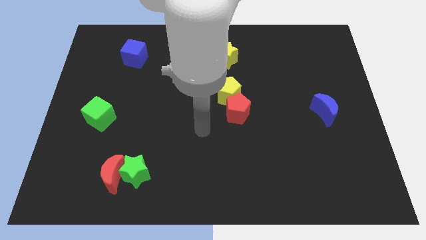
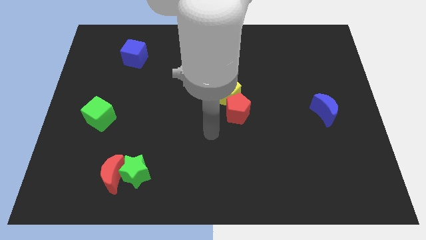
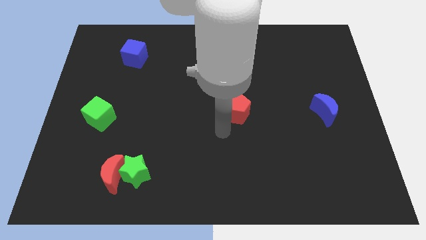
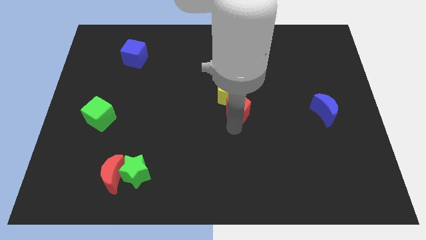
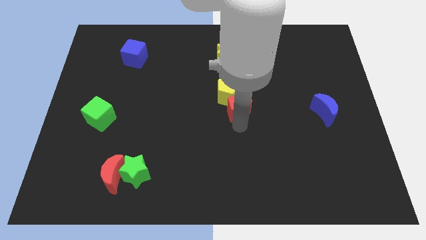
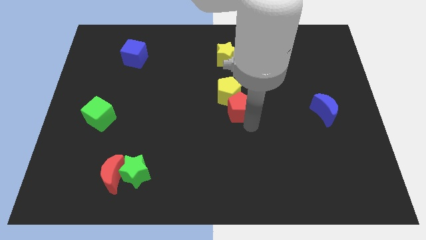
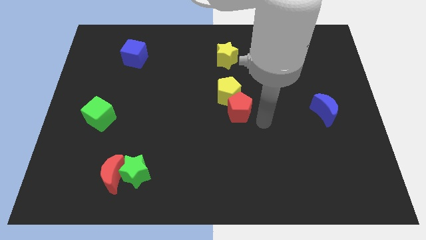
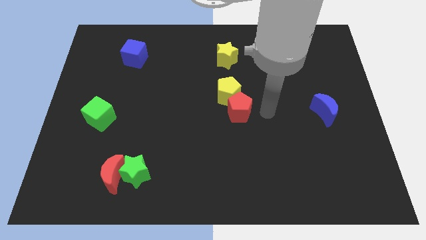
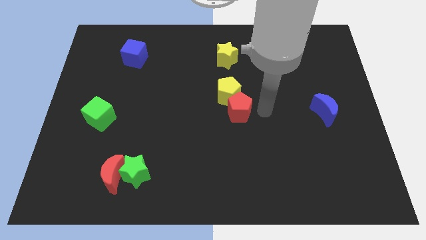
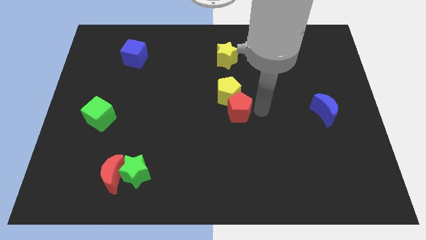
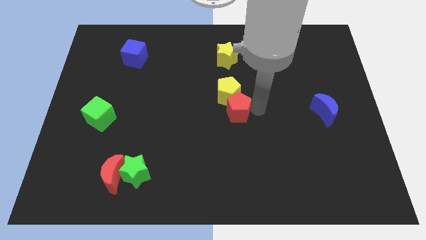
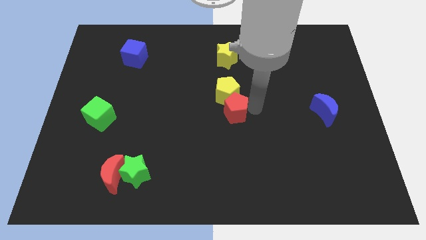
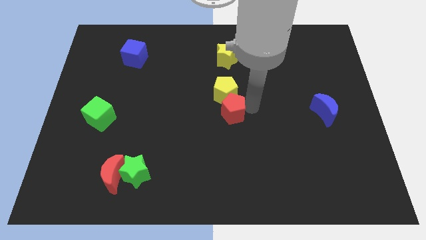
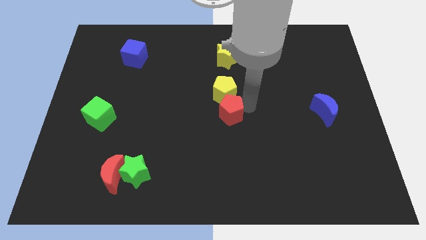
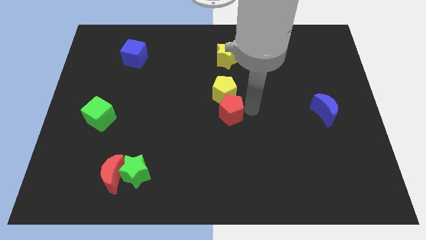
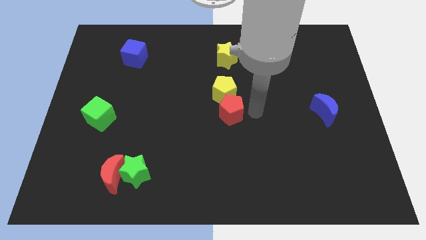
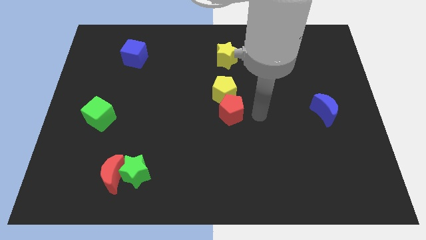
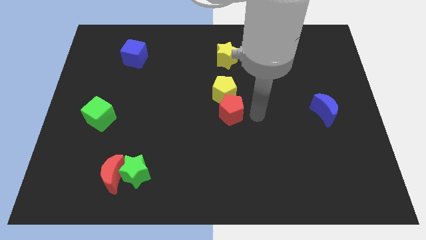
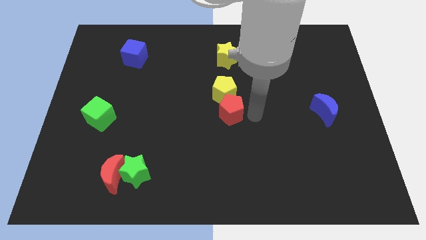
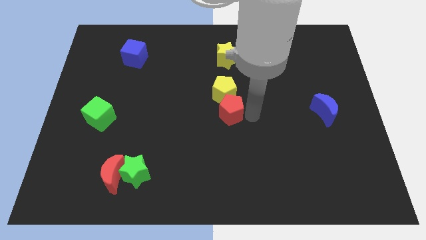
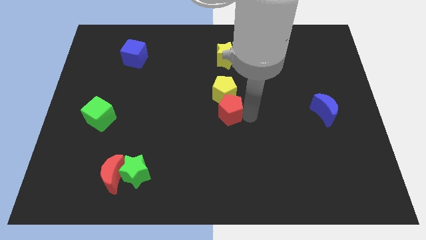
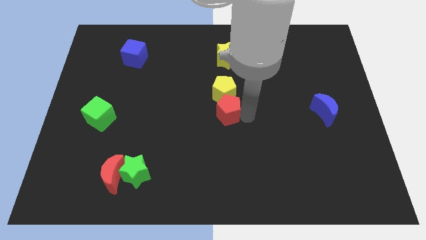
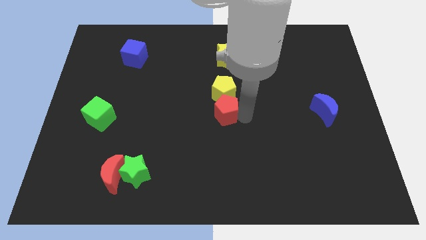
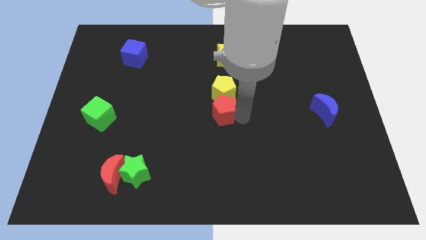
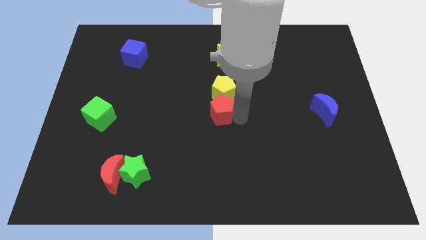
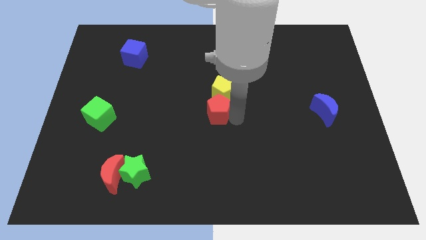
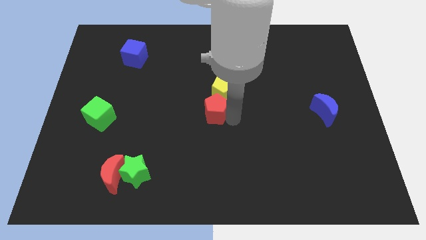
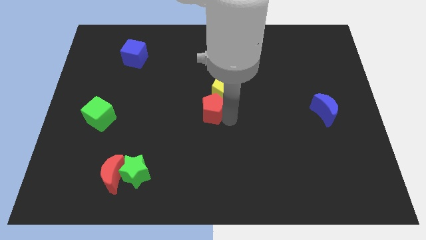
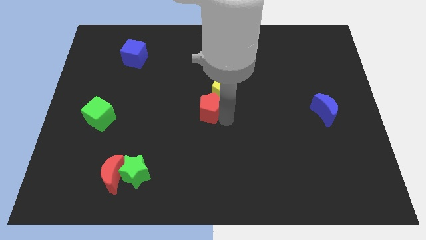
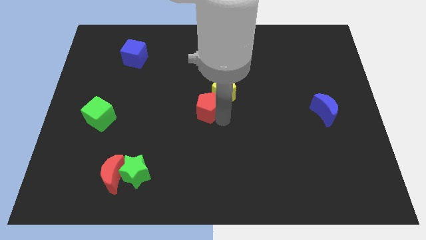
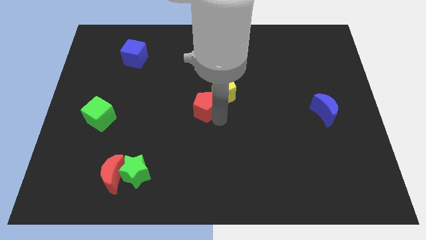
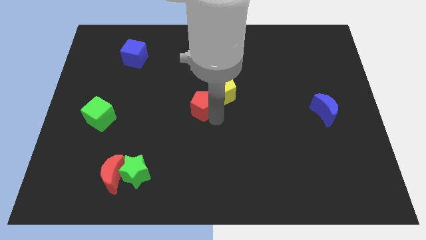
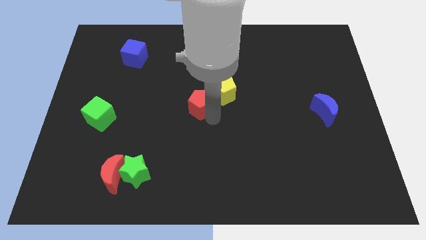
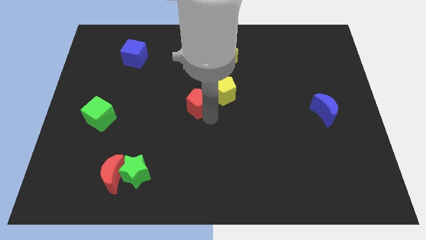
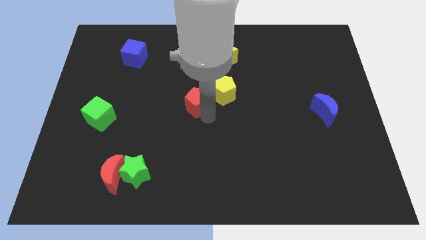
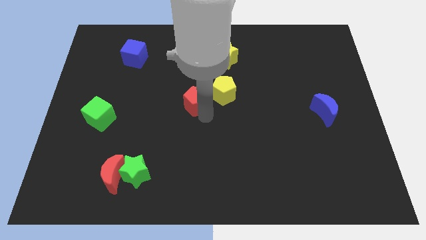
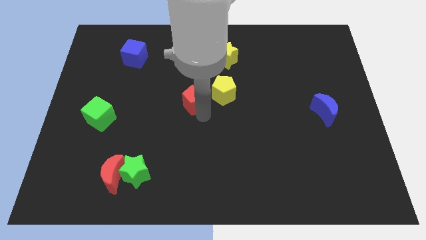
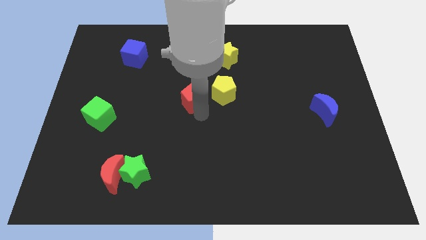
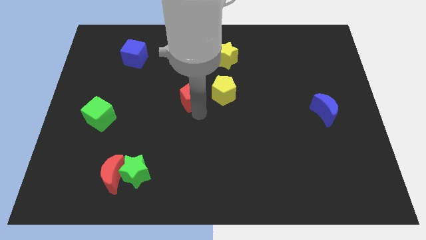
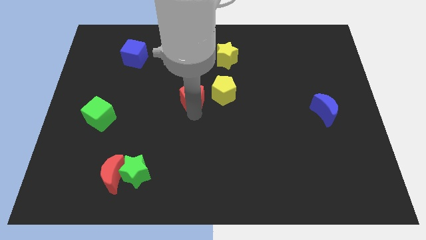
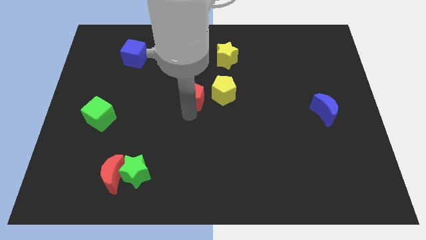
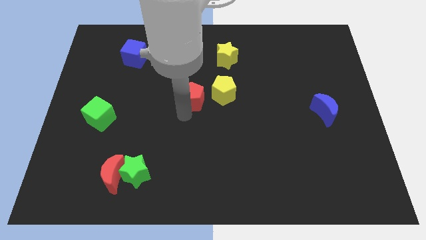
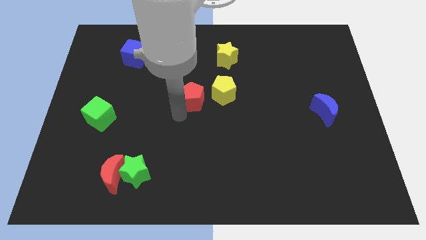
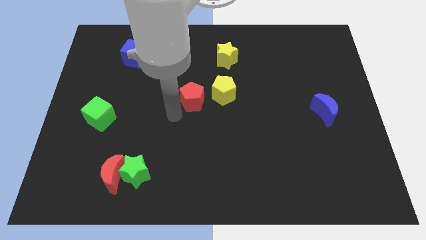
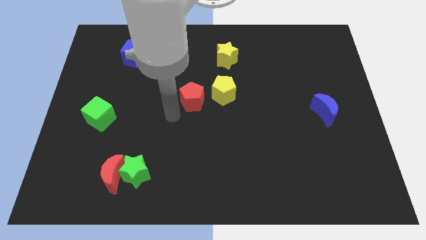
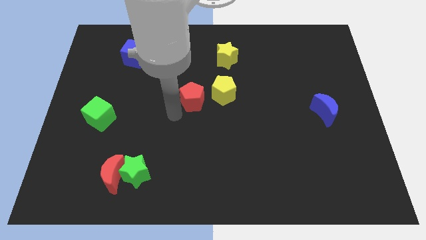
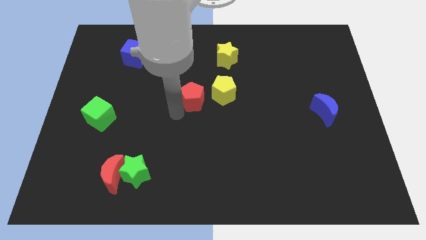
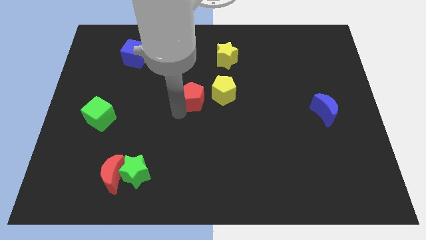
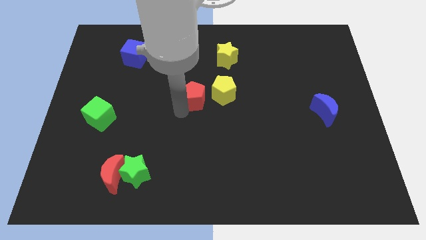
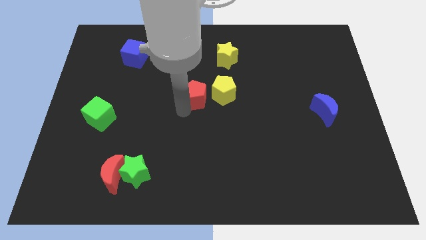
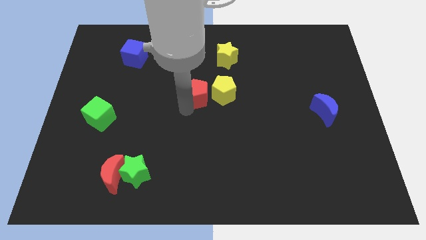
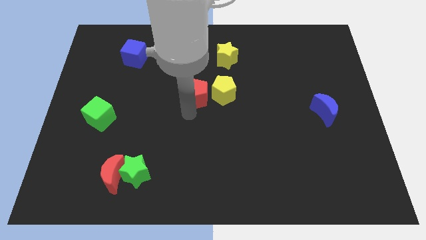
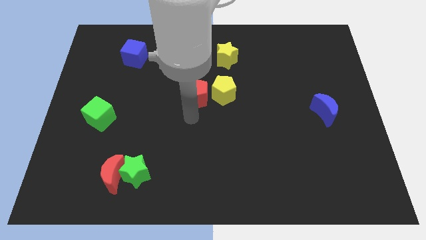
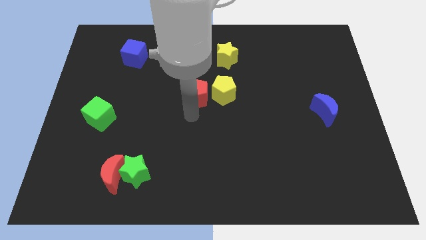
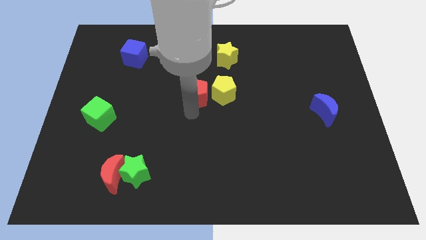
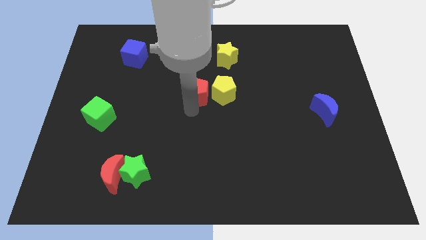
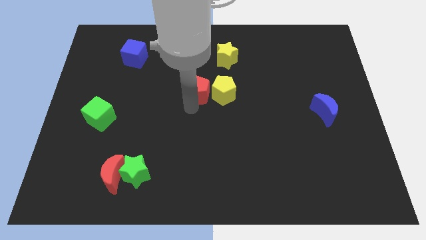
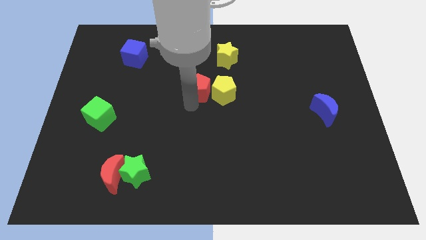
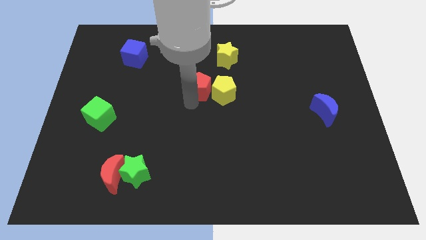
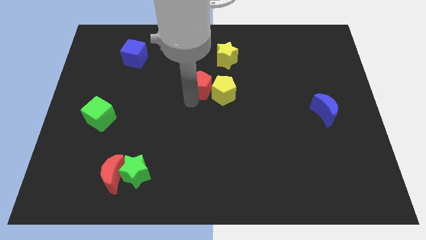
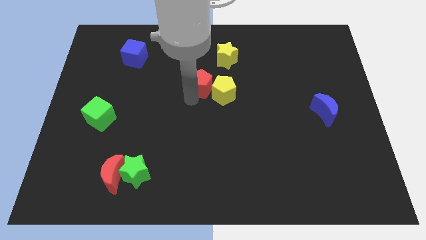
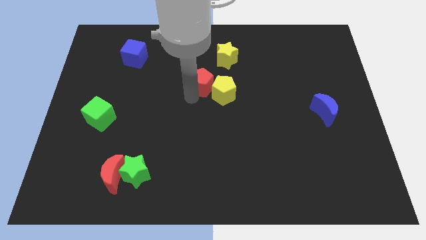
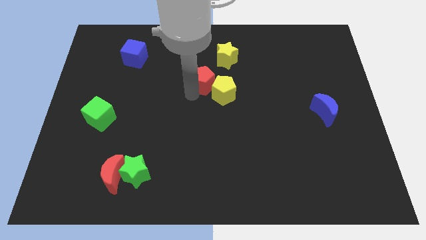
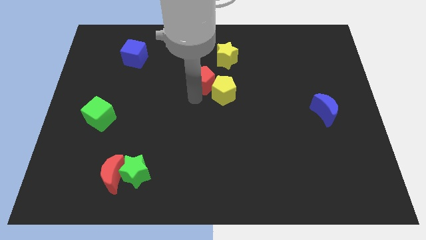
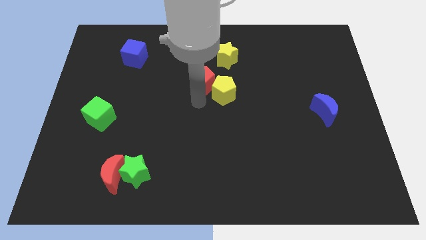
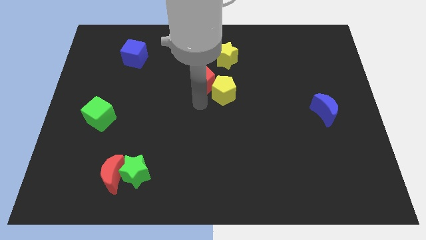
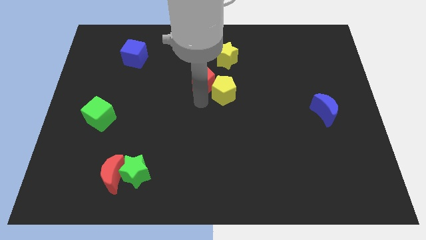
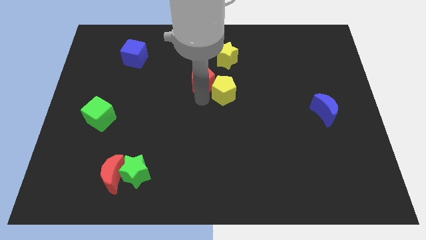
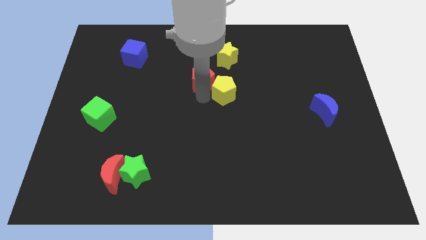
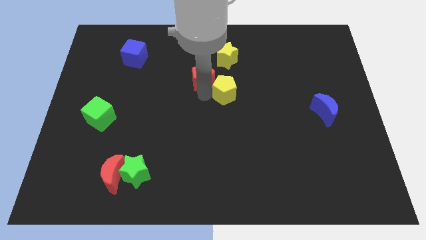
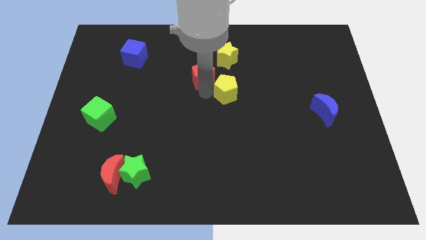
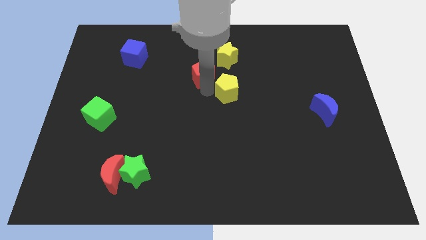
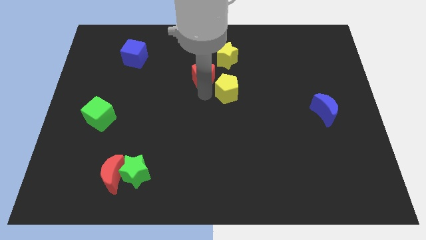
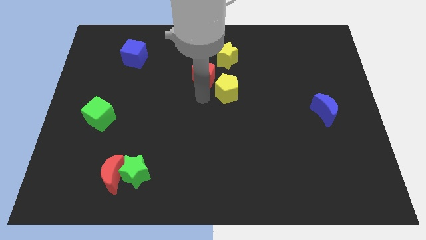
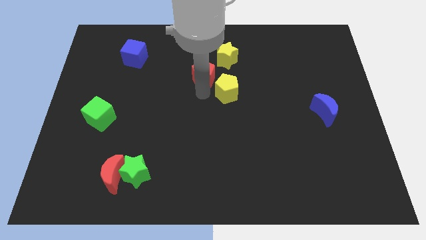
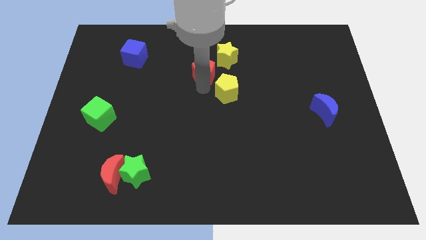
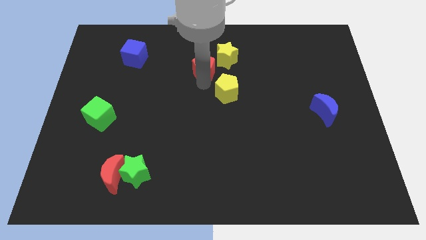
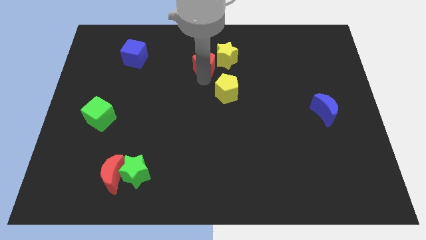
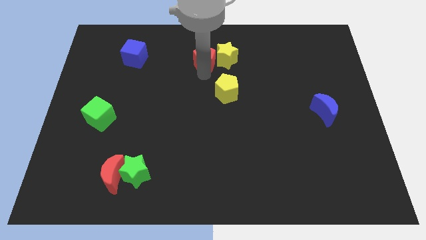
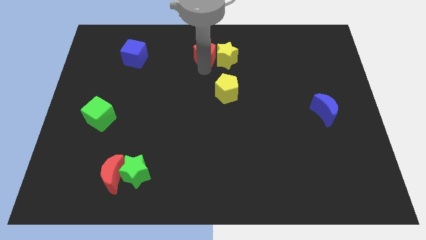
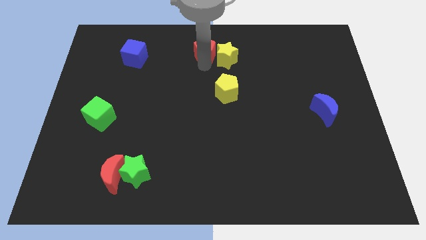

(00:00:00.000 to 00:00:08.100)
move the red pentagon to the towards your base
